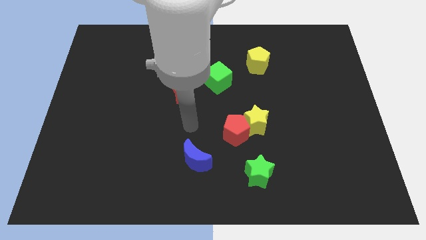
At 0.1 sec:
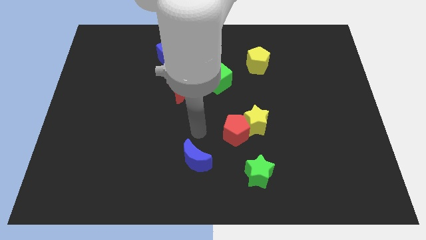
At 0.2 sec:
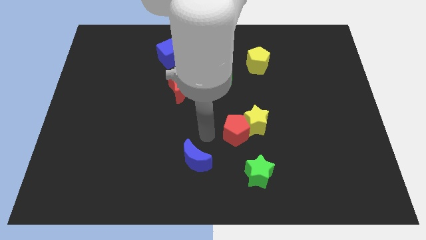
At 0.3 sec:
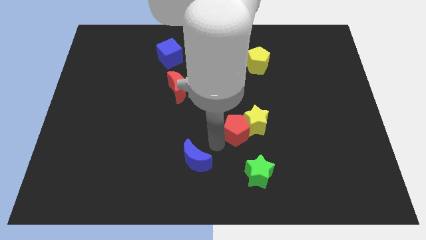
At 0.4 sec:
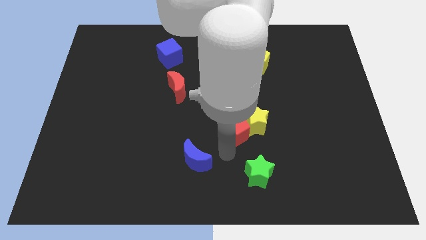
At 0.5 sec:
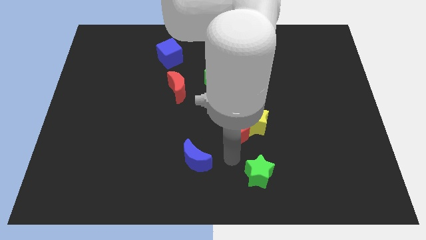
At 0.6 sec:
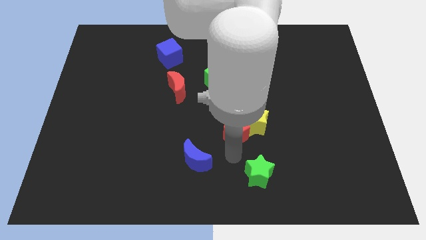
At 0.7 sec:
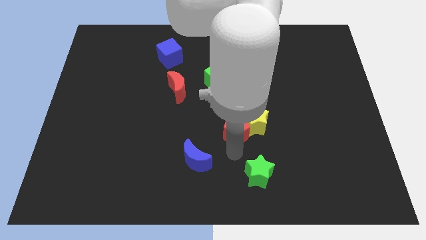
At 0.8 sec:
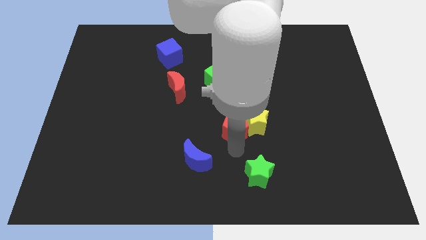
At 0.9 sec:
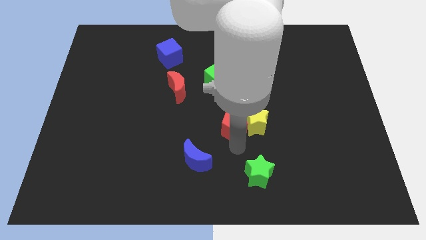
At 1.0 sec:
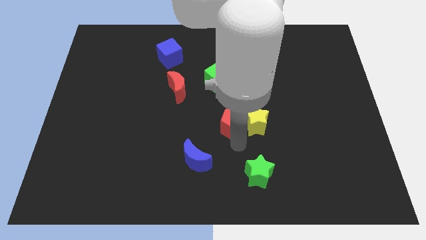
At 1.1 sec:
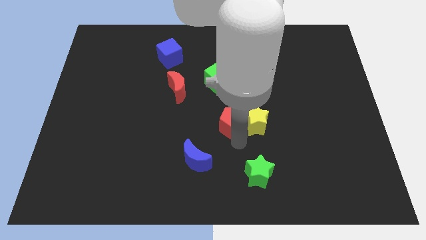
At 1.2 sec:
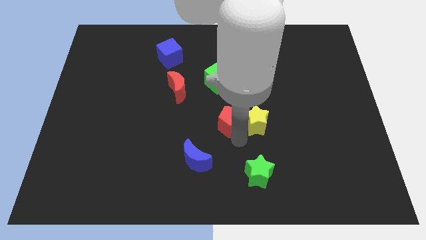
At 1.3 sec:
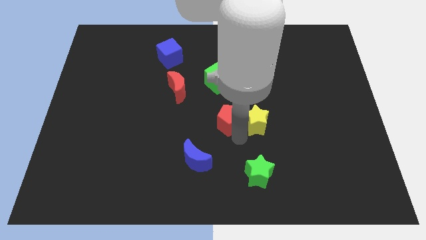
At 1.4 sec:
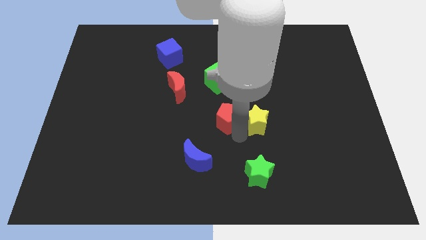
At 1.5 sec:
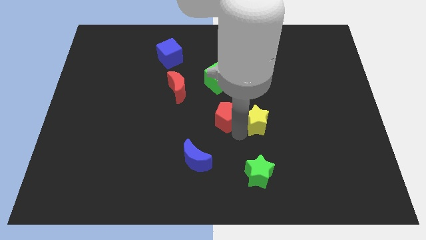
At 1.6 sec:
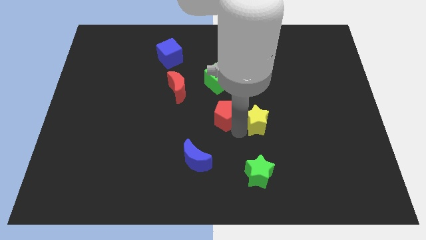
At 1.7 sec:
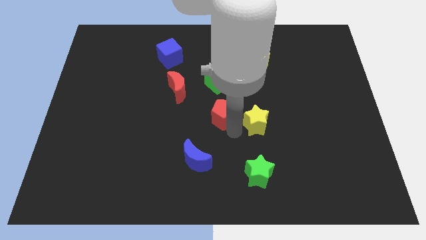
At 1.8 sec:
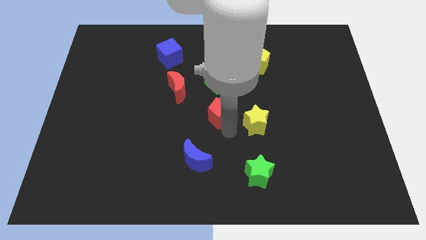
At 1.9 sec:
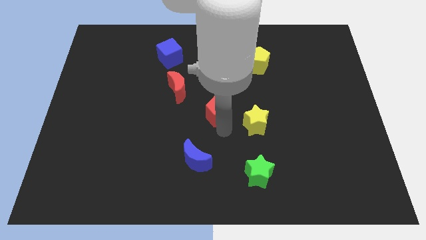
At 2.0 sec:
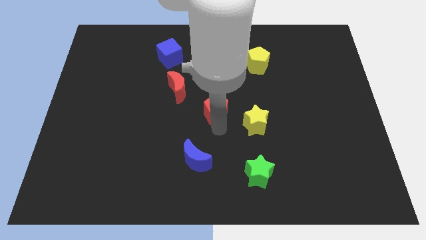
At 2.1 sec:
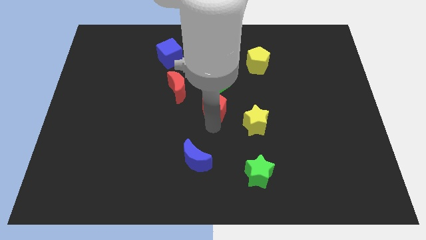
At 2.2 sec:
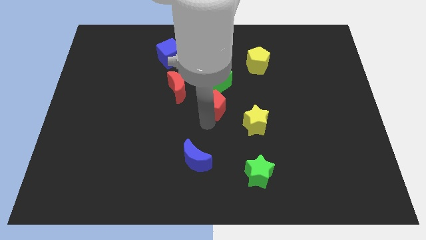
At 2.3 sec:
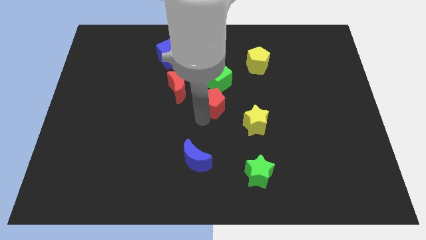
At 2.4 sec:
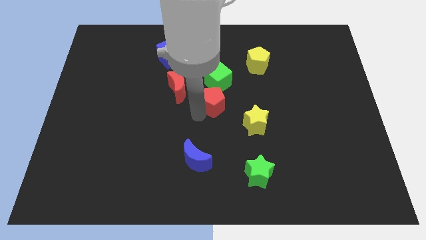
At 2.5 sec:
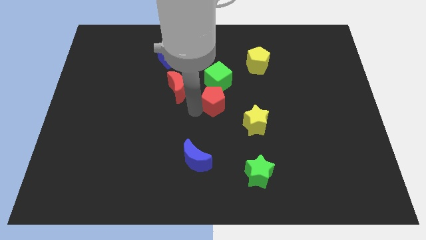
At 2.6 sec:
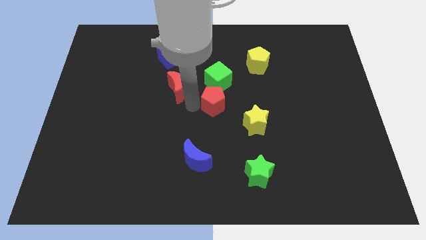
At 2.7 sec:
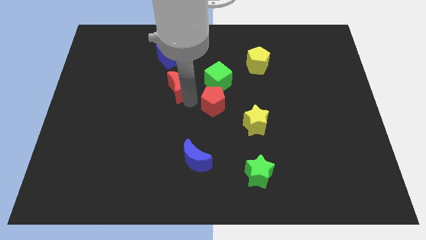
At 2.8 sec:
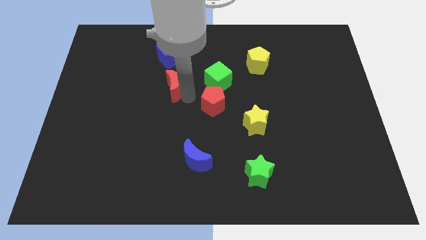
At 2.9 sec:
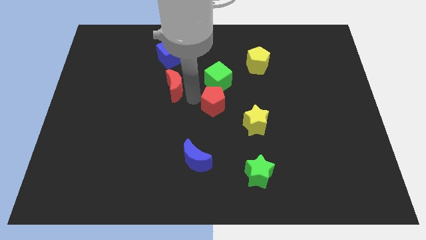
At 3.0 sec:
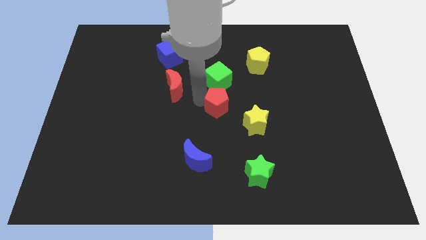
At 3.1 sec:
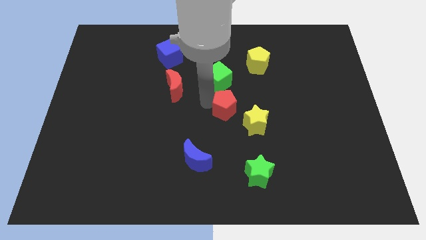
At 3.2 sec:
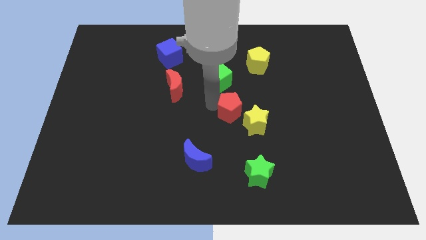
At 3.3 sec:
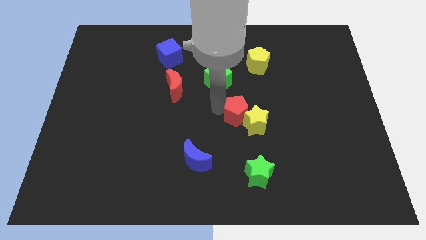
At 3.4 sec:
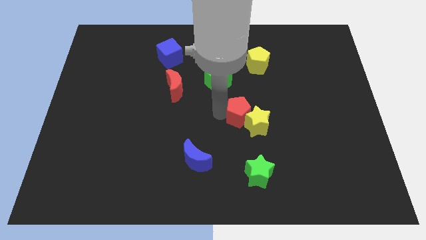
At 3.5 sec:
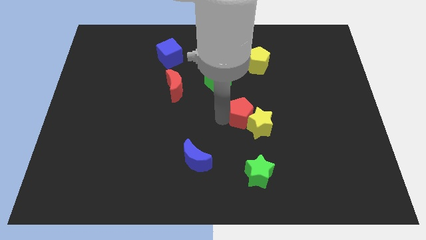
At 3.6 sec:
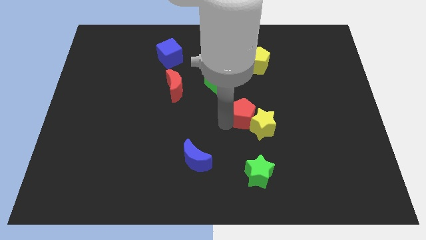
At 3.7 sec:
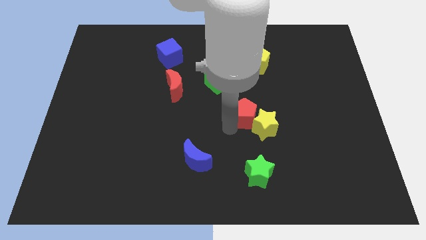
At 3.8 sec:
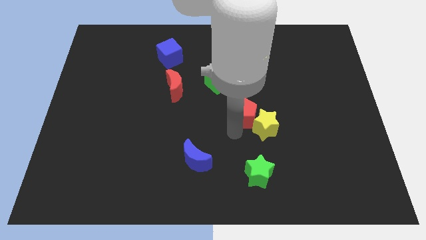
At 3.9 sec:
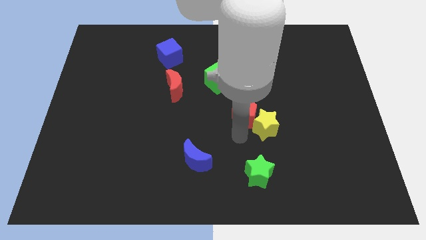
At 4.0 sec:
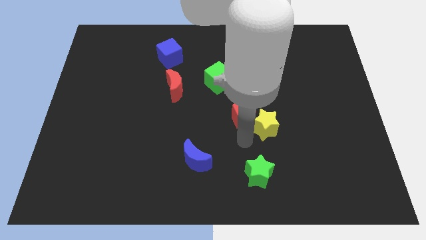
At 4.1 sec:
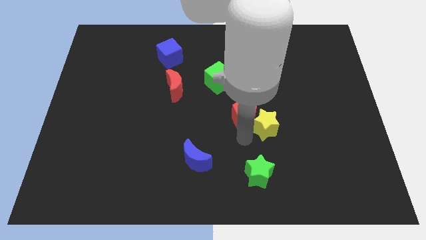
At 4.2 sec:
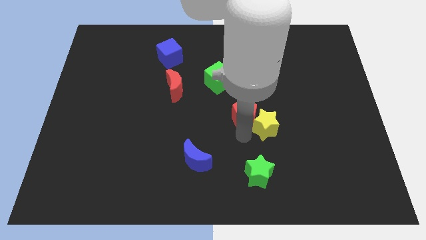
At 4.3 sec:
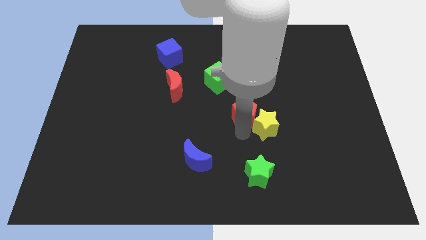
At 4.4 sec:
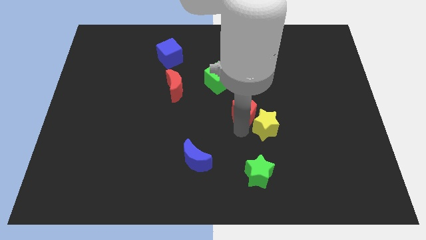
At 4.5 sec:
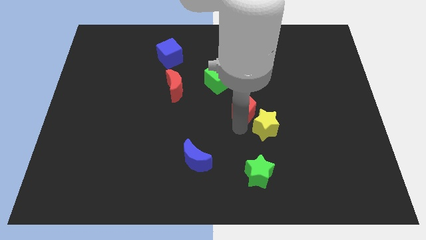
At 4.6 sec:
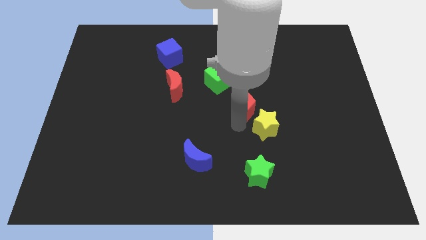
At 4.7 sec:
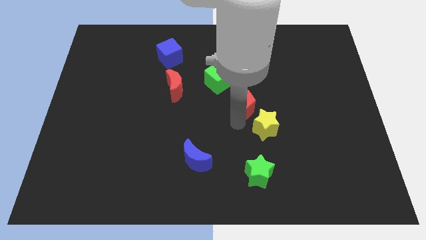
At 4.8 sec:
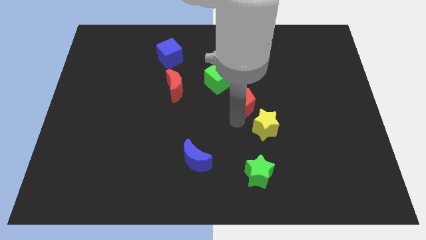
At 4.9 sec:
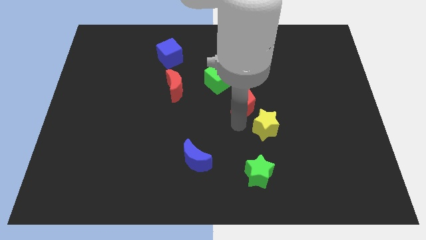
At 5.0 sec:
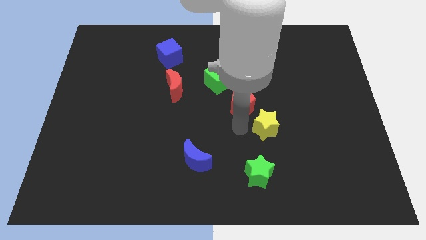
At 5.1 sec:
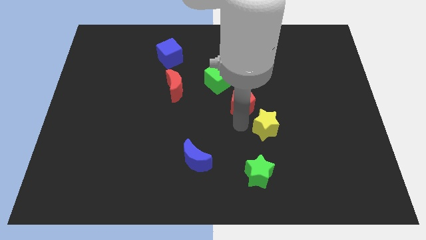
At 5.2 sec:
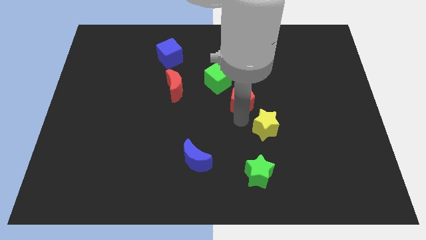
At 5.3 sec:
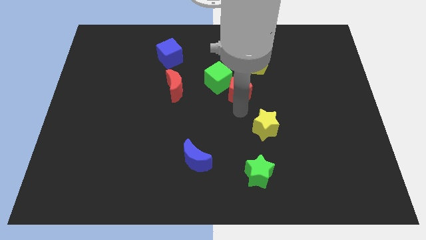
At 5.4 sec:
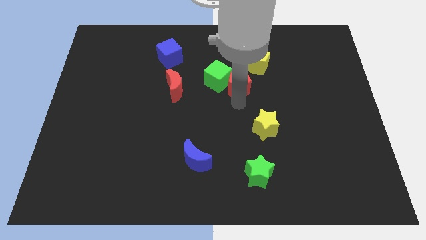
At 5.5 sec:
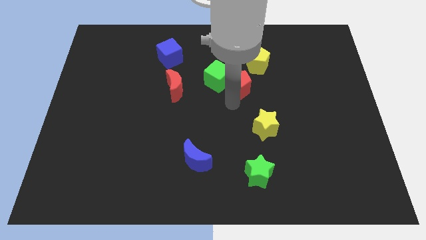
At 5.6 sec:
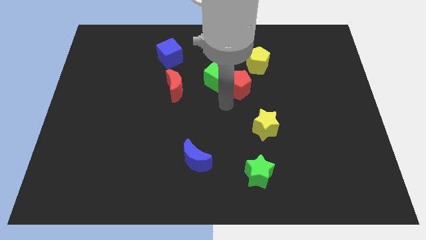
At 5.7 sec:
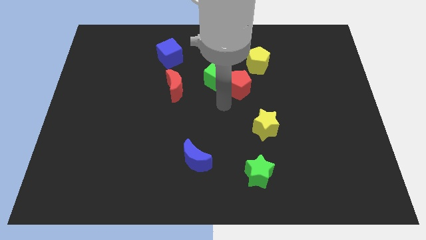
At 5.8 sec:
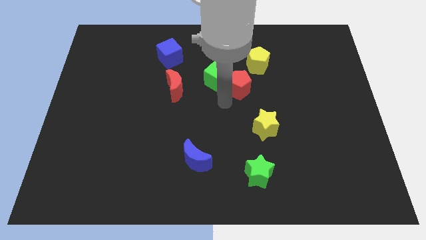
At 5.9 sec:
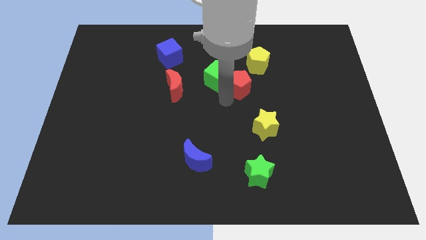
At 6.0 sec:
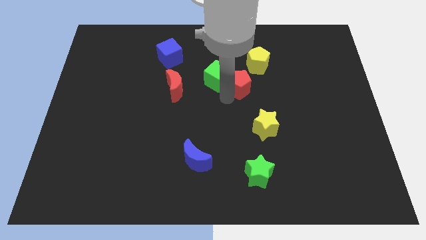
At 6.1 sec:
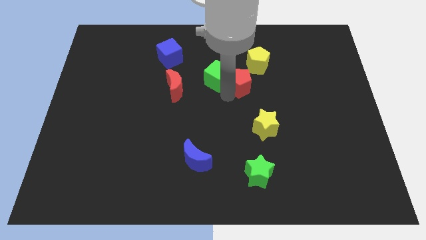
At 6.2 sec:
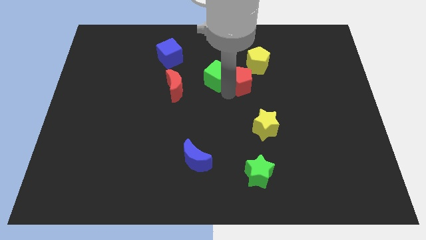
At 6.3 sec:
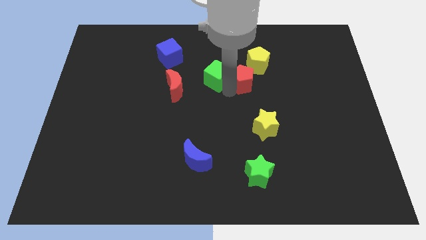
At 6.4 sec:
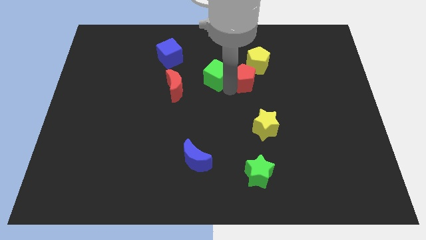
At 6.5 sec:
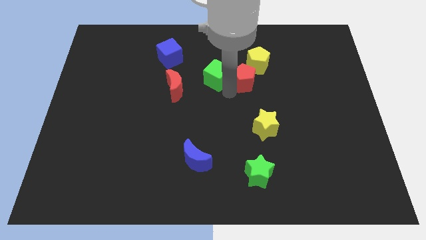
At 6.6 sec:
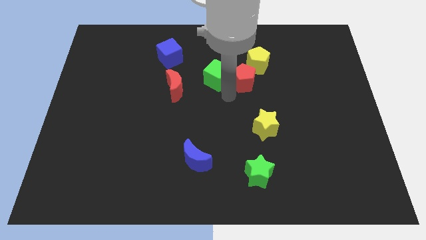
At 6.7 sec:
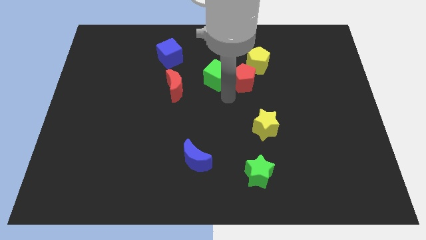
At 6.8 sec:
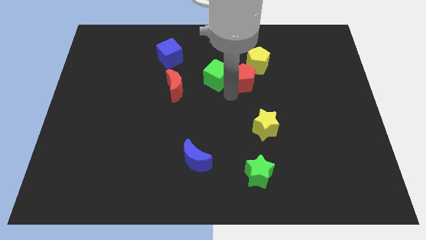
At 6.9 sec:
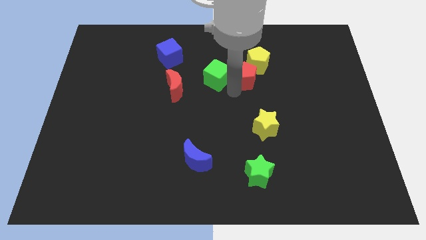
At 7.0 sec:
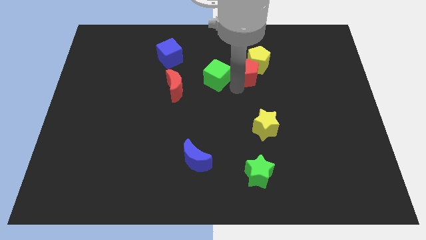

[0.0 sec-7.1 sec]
slide the red pentagon next to the yellow pentagon
